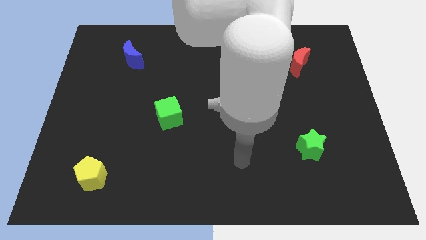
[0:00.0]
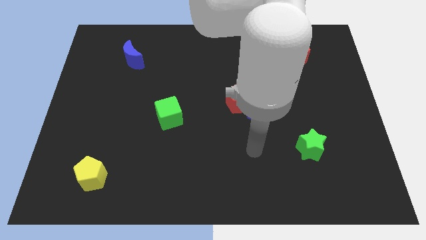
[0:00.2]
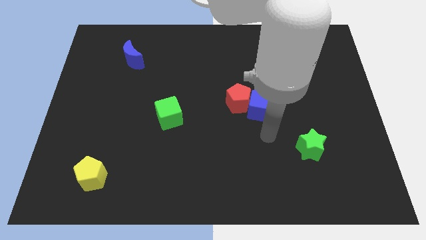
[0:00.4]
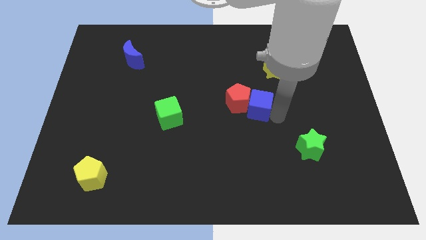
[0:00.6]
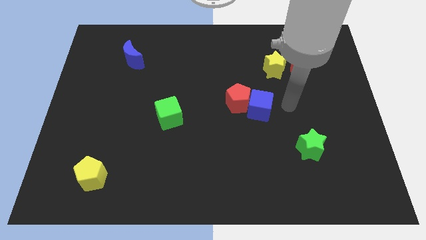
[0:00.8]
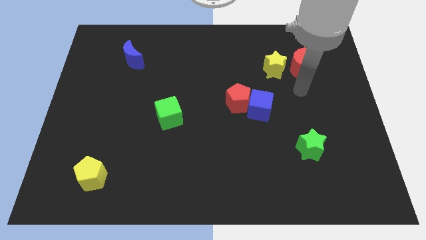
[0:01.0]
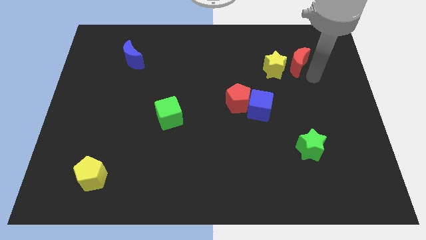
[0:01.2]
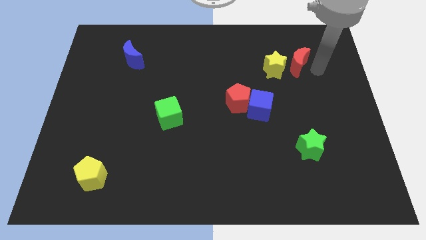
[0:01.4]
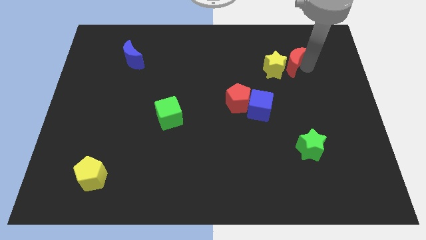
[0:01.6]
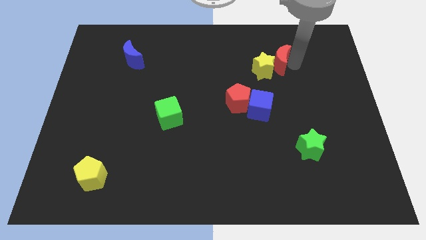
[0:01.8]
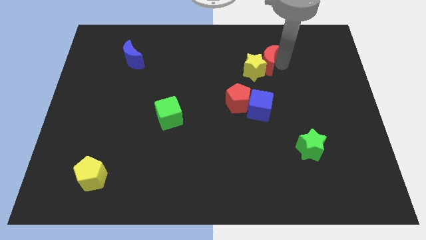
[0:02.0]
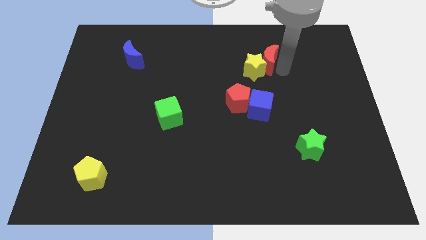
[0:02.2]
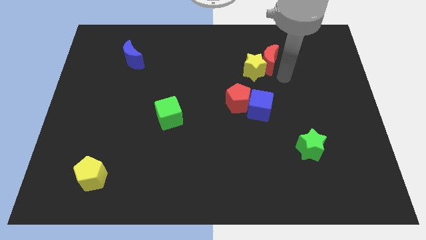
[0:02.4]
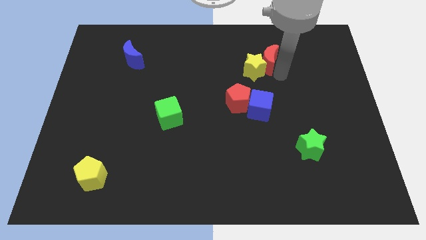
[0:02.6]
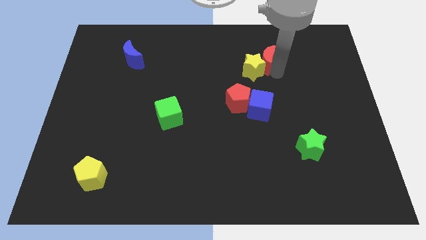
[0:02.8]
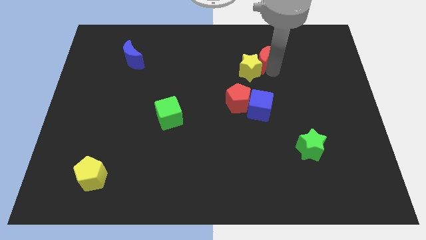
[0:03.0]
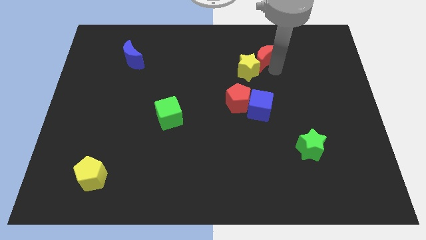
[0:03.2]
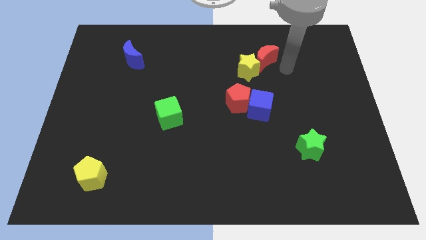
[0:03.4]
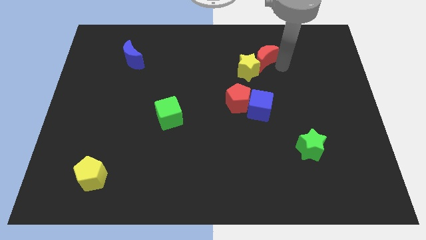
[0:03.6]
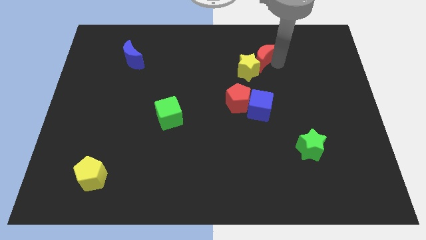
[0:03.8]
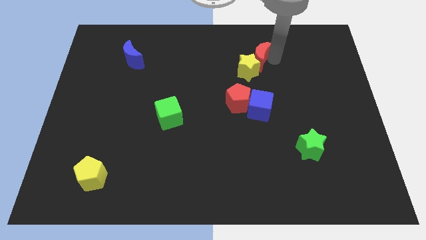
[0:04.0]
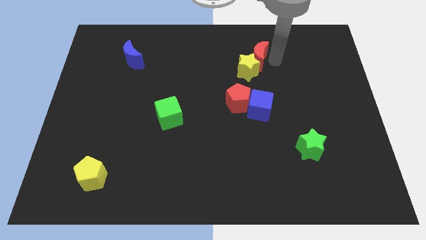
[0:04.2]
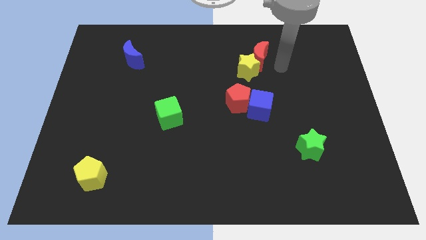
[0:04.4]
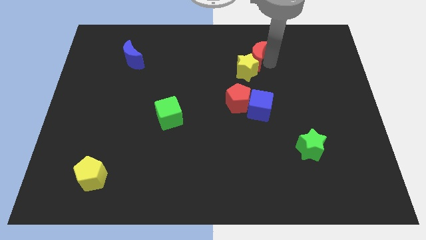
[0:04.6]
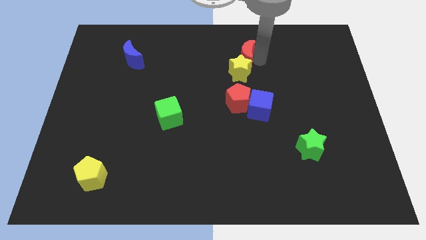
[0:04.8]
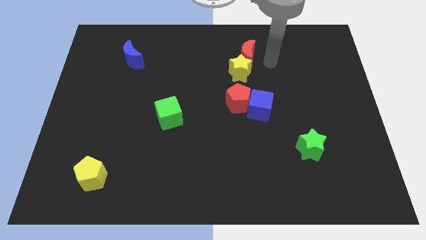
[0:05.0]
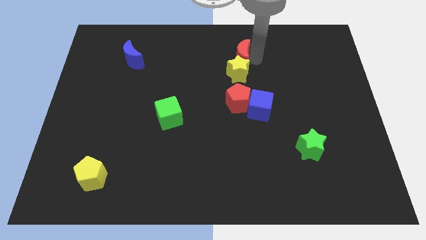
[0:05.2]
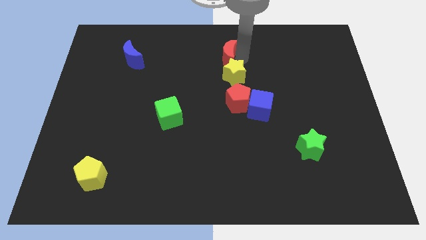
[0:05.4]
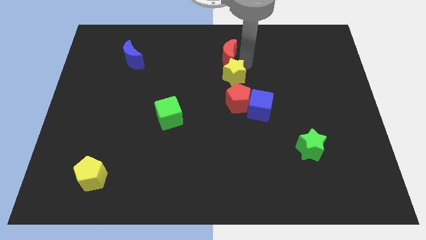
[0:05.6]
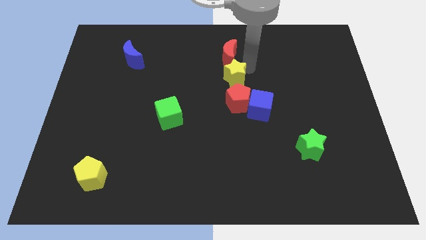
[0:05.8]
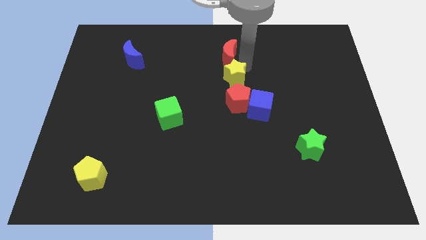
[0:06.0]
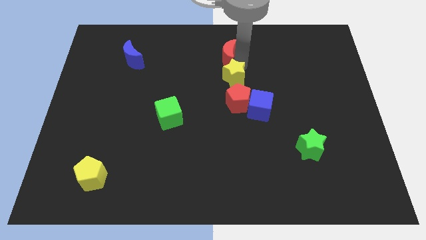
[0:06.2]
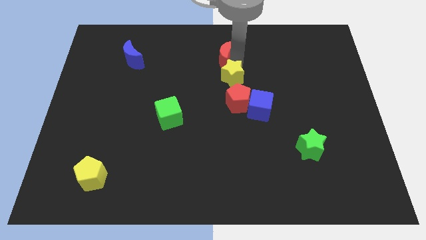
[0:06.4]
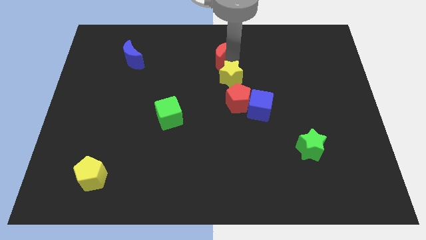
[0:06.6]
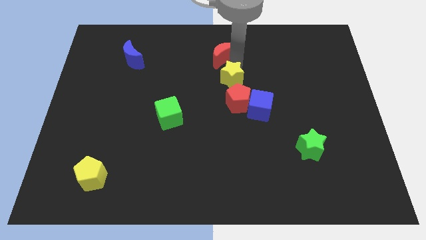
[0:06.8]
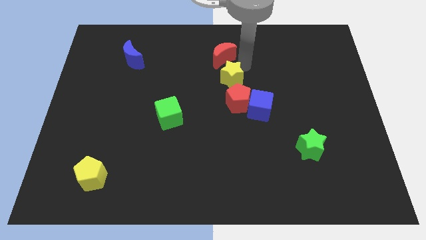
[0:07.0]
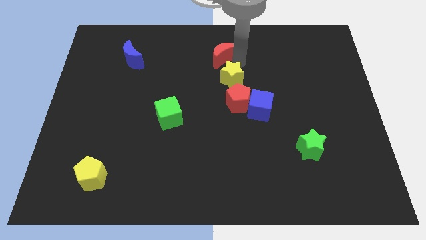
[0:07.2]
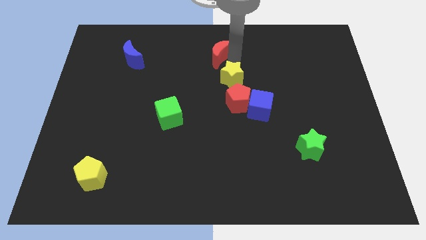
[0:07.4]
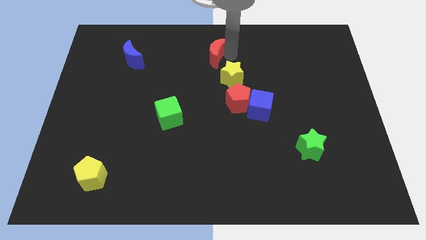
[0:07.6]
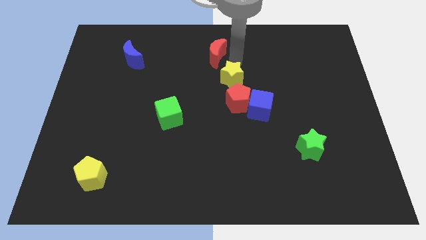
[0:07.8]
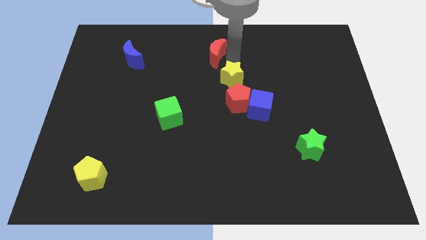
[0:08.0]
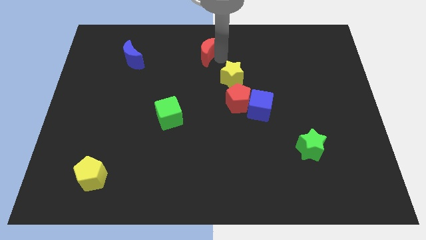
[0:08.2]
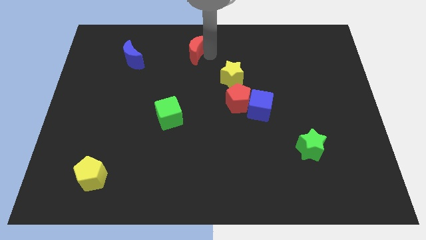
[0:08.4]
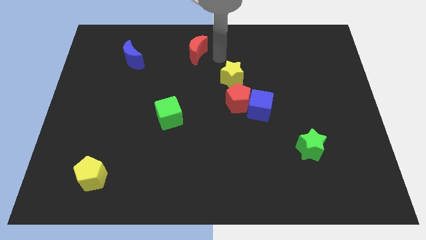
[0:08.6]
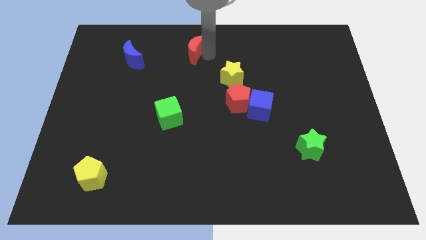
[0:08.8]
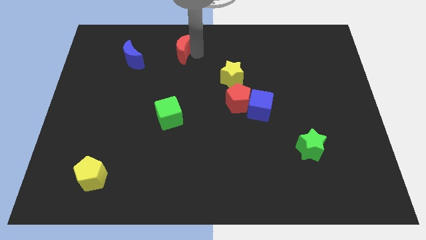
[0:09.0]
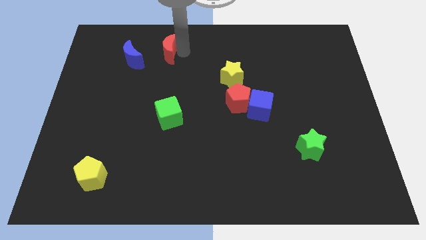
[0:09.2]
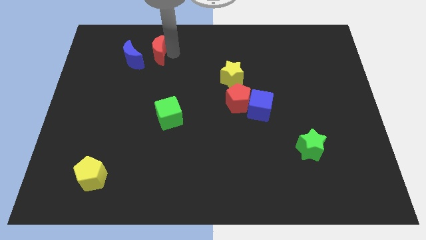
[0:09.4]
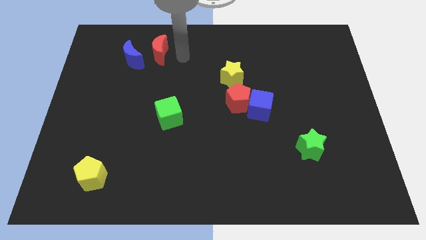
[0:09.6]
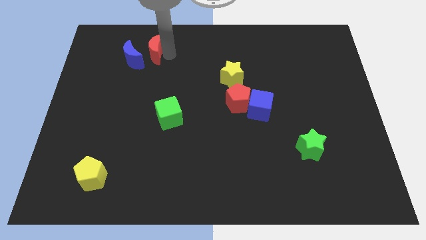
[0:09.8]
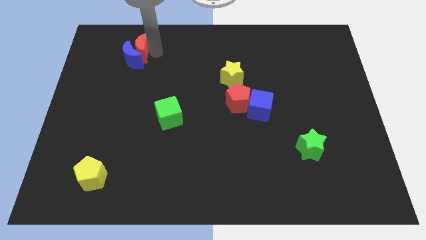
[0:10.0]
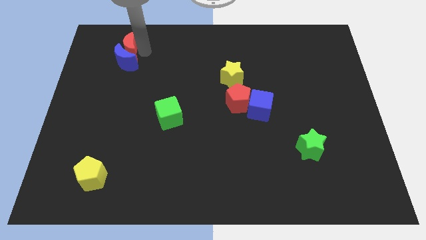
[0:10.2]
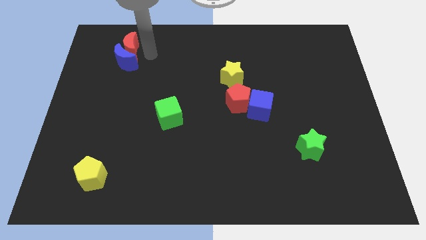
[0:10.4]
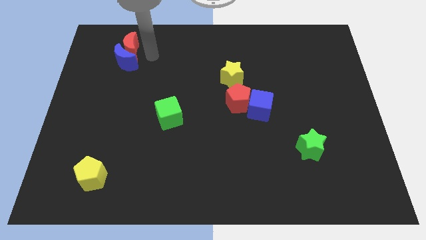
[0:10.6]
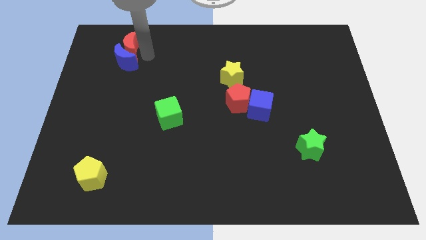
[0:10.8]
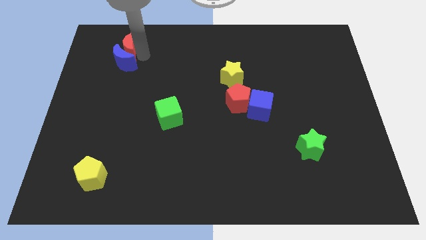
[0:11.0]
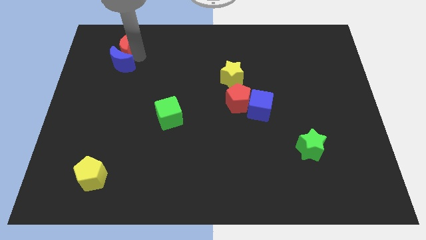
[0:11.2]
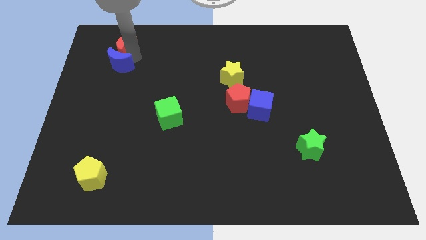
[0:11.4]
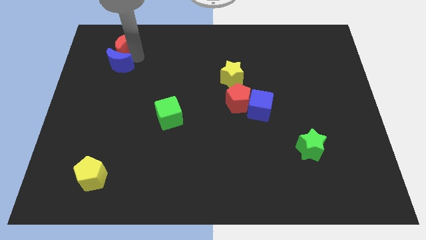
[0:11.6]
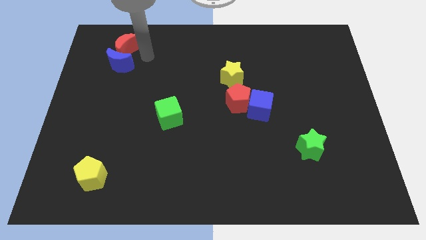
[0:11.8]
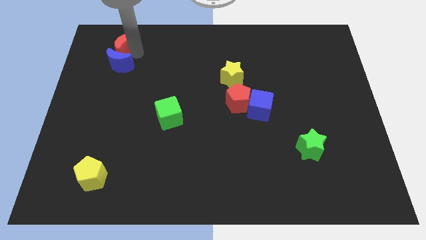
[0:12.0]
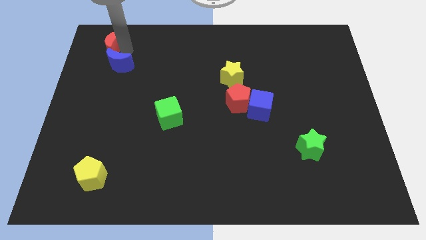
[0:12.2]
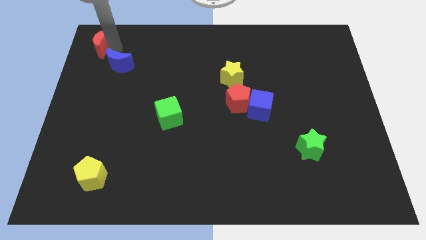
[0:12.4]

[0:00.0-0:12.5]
slide the red moon to the upper left corner
